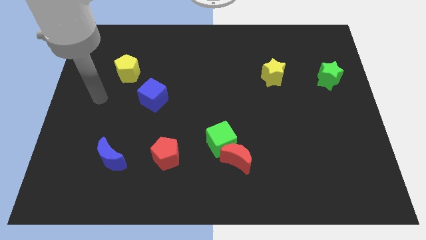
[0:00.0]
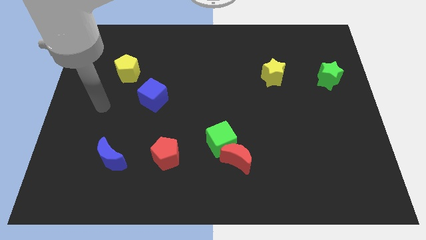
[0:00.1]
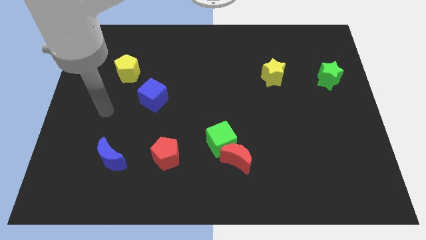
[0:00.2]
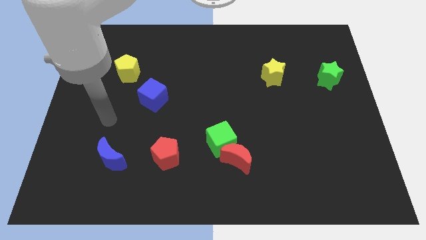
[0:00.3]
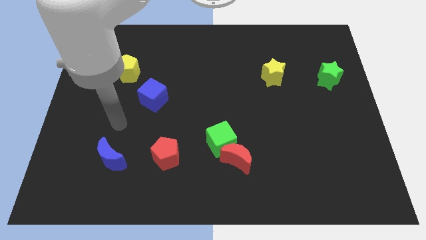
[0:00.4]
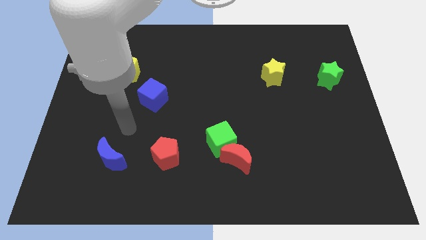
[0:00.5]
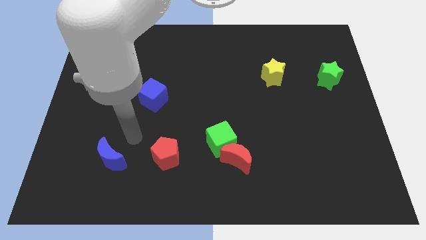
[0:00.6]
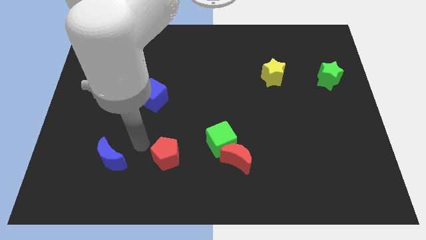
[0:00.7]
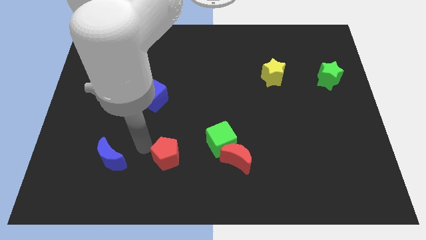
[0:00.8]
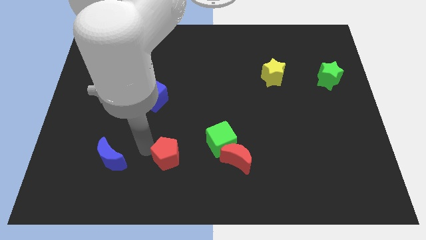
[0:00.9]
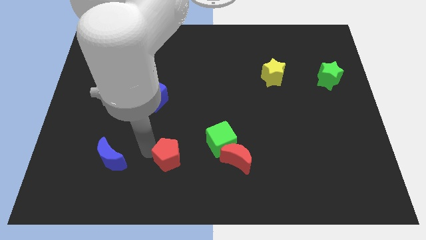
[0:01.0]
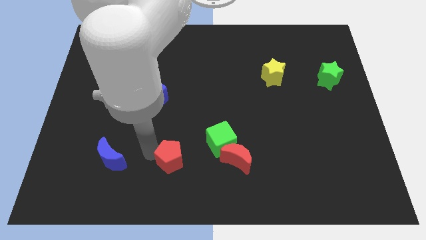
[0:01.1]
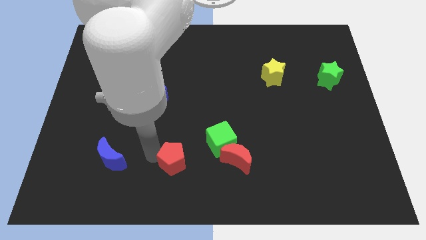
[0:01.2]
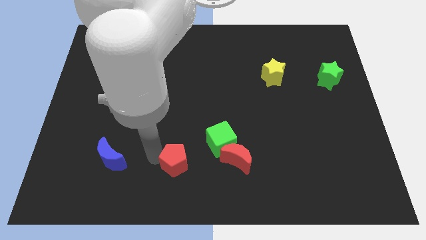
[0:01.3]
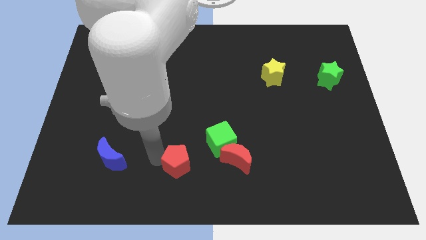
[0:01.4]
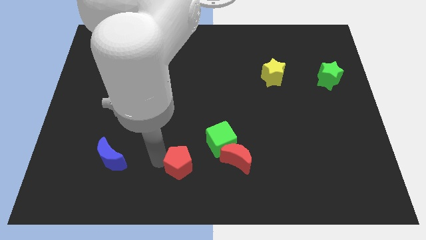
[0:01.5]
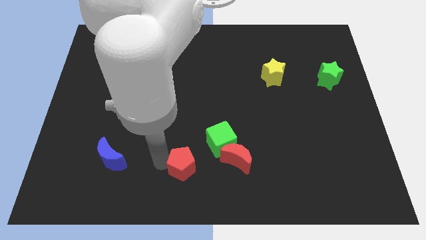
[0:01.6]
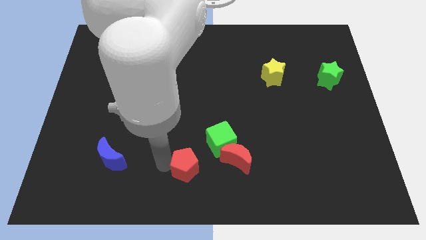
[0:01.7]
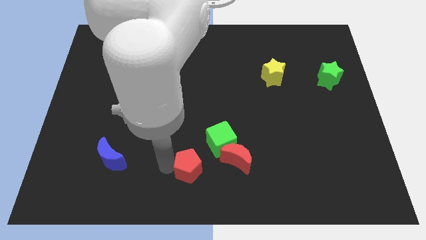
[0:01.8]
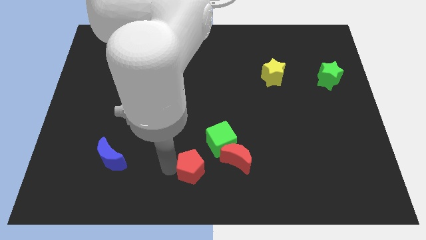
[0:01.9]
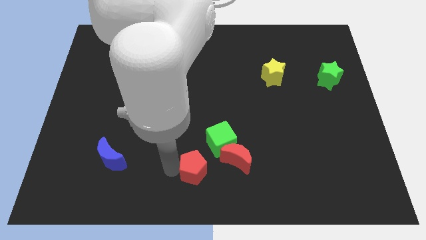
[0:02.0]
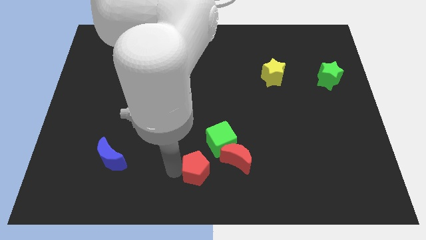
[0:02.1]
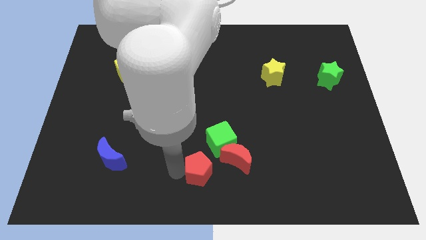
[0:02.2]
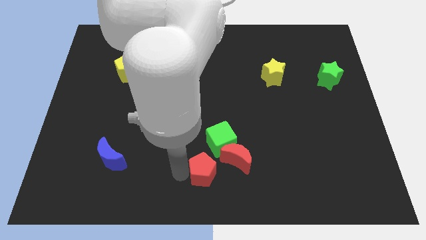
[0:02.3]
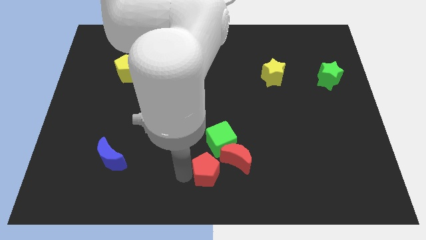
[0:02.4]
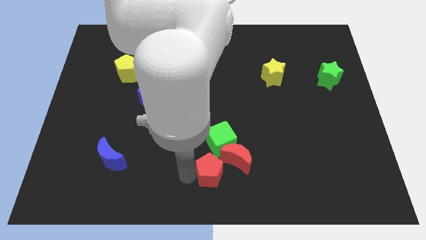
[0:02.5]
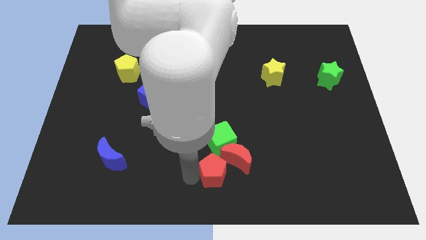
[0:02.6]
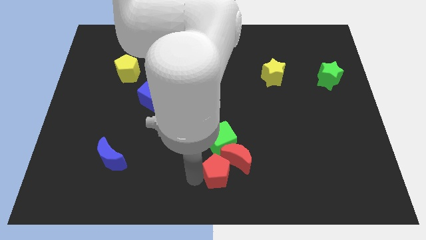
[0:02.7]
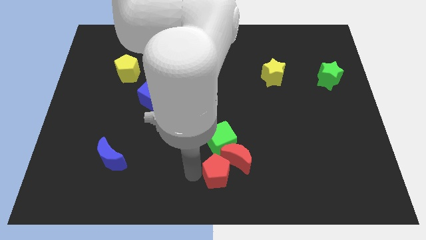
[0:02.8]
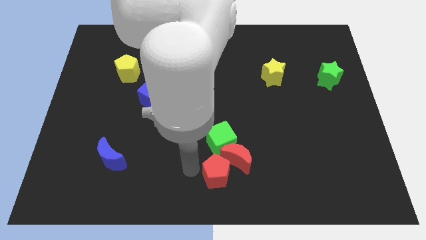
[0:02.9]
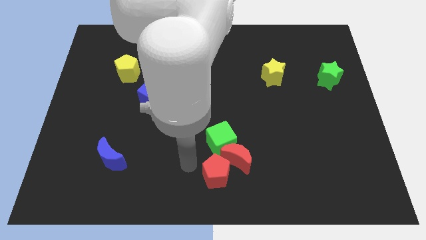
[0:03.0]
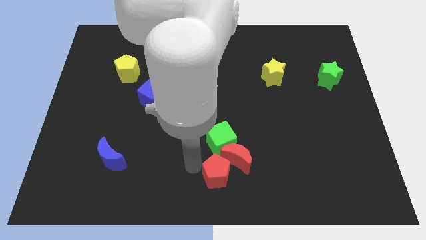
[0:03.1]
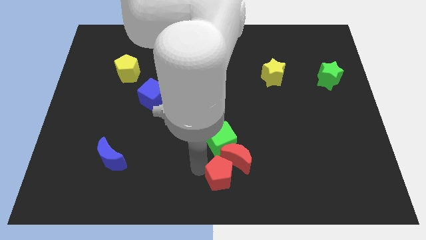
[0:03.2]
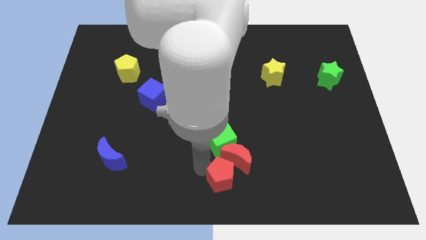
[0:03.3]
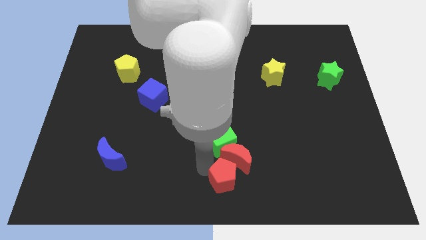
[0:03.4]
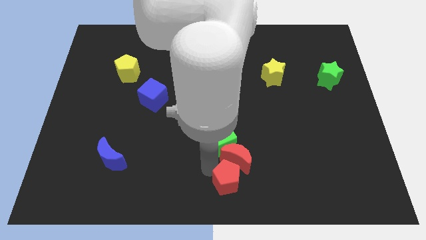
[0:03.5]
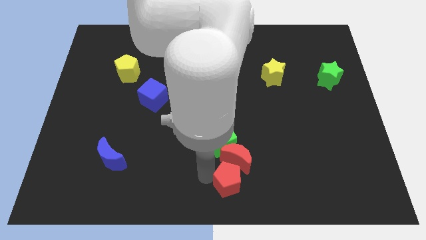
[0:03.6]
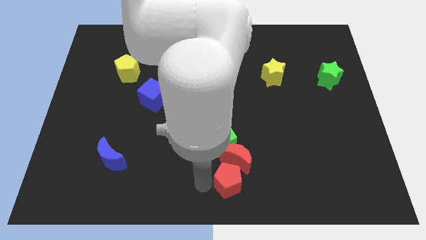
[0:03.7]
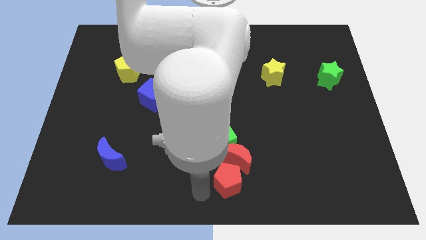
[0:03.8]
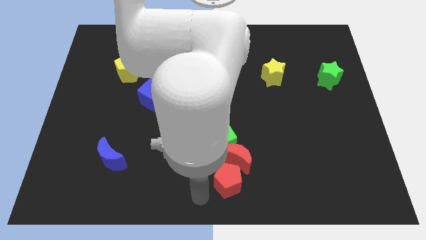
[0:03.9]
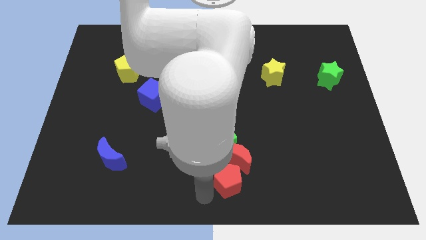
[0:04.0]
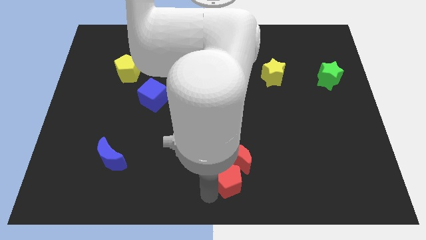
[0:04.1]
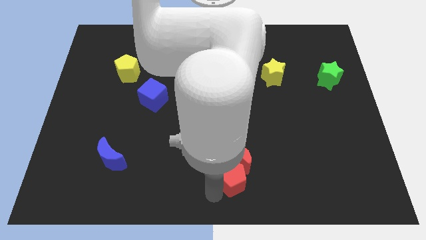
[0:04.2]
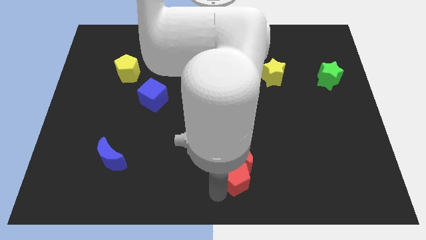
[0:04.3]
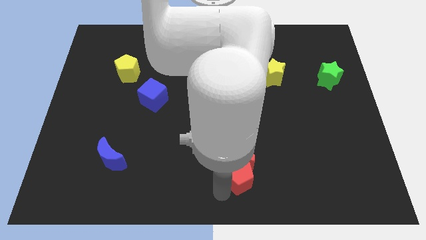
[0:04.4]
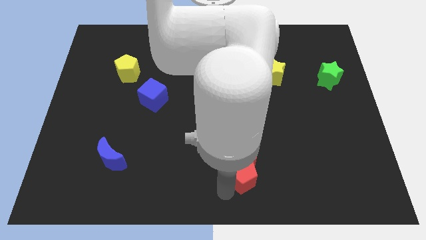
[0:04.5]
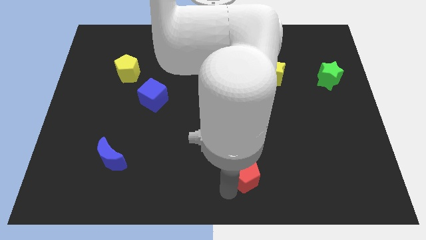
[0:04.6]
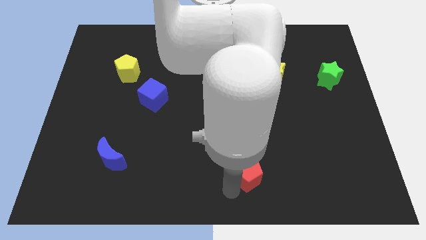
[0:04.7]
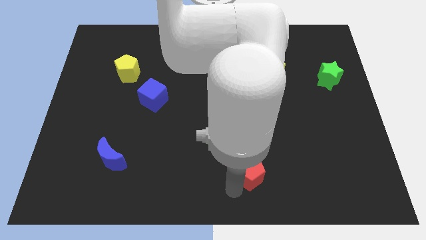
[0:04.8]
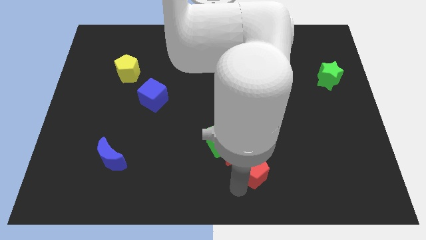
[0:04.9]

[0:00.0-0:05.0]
slide the red pentagon right of the red moon

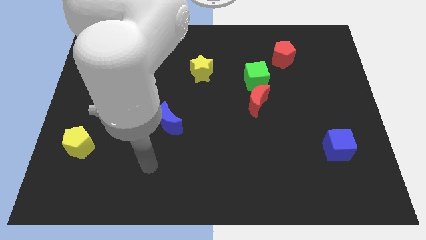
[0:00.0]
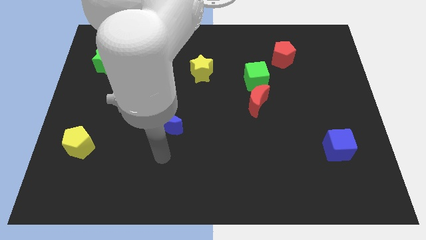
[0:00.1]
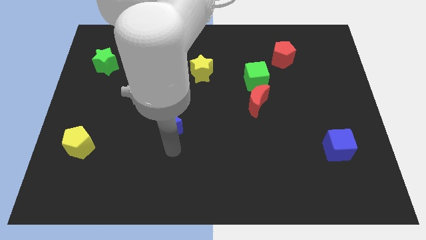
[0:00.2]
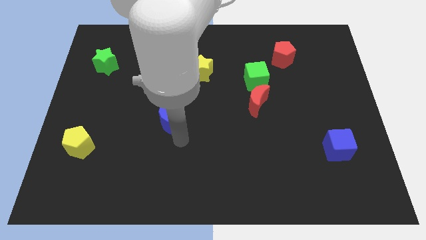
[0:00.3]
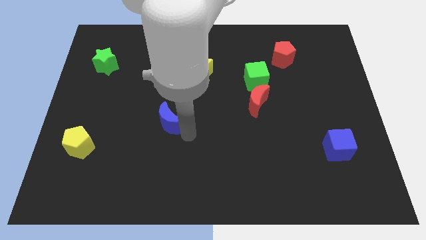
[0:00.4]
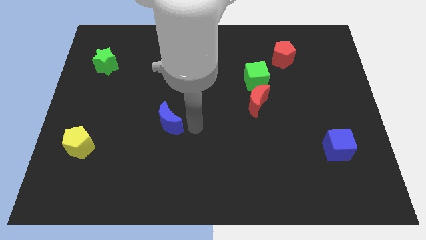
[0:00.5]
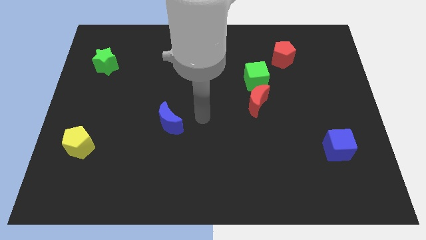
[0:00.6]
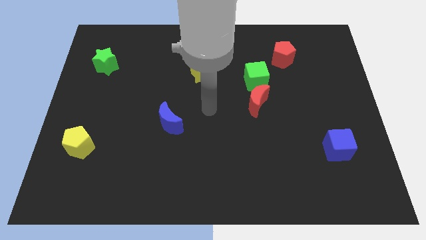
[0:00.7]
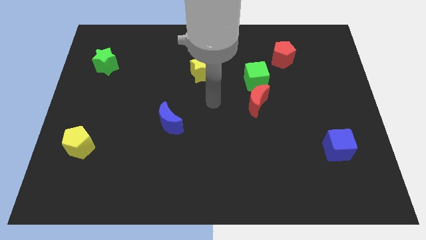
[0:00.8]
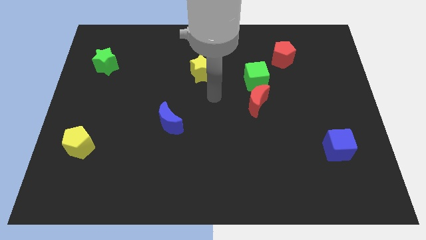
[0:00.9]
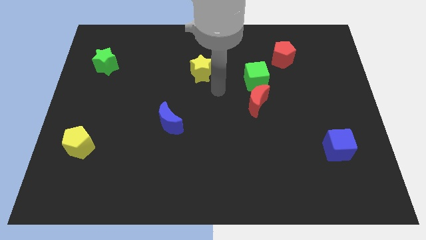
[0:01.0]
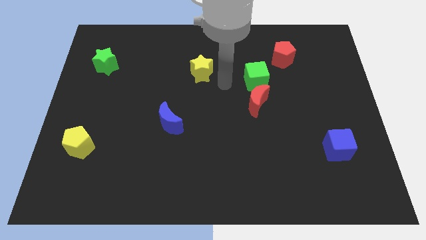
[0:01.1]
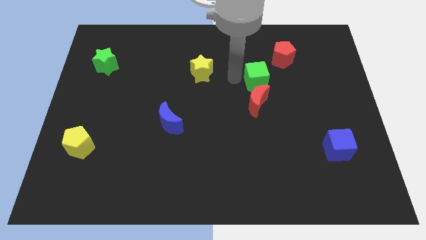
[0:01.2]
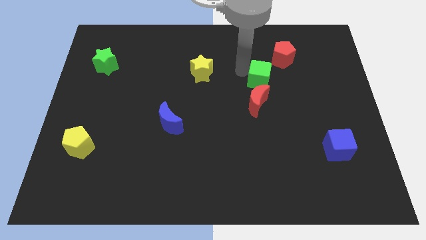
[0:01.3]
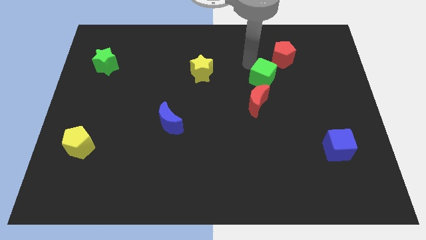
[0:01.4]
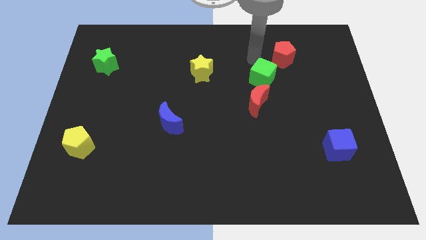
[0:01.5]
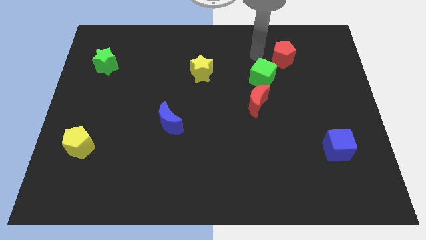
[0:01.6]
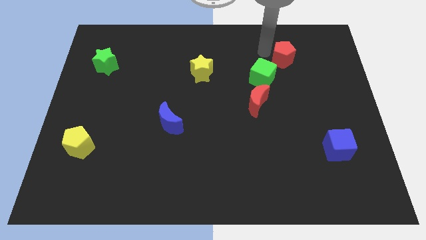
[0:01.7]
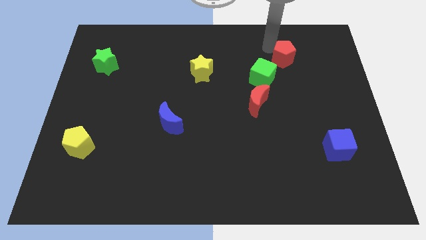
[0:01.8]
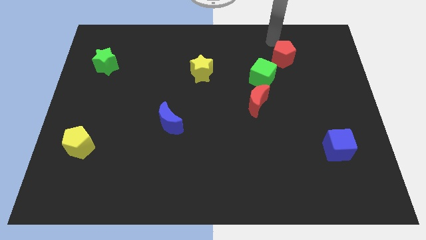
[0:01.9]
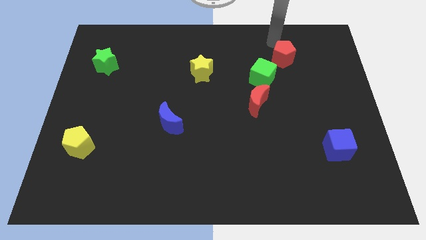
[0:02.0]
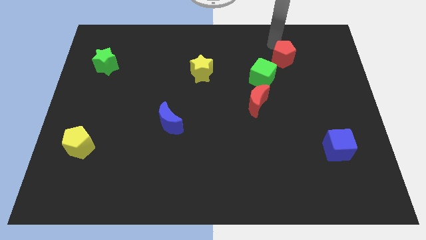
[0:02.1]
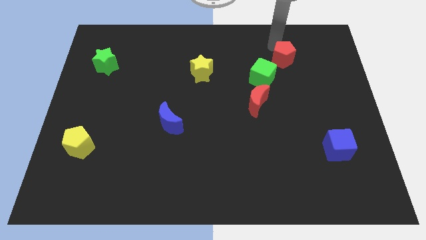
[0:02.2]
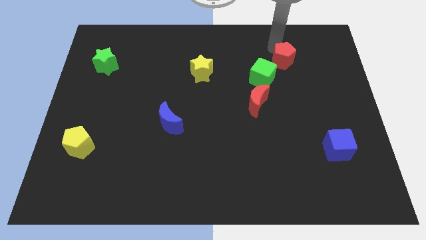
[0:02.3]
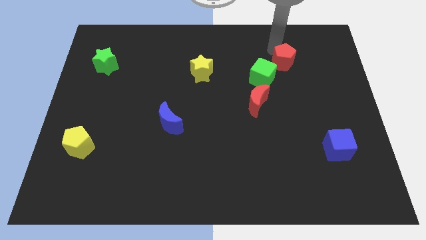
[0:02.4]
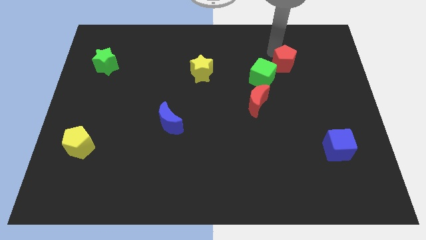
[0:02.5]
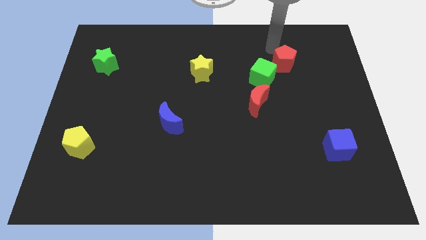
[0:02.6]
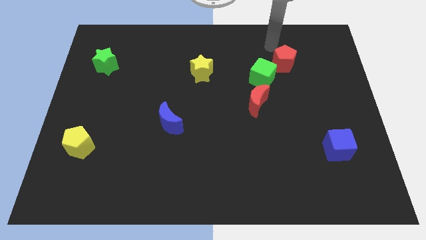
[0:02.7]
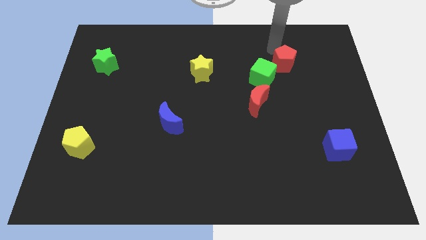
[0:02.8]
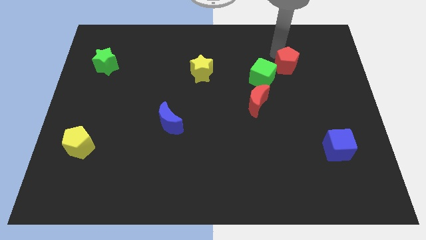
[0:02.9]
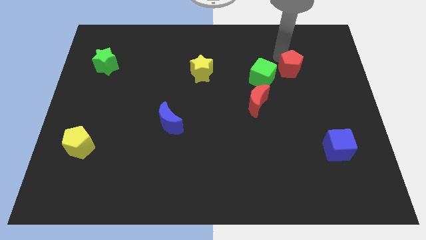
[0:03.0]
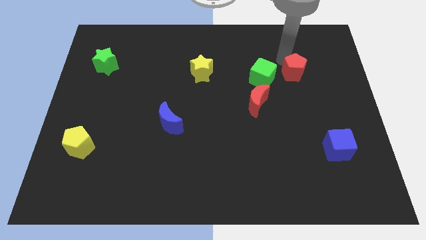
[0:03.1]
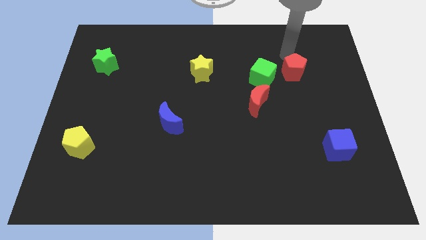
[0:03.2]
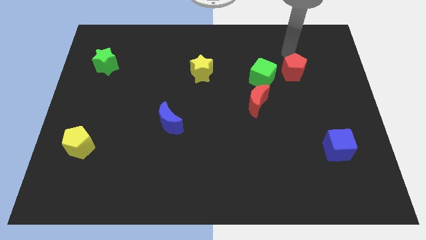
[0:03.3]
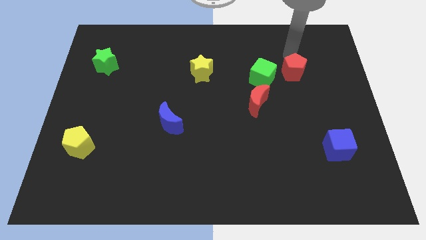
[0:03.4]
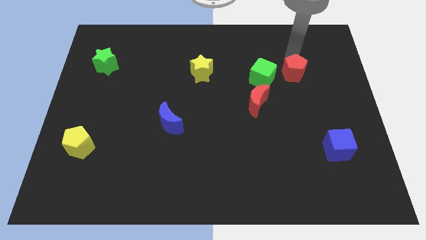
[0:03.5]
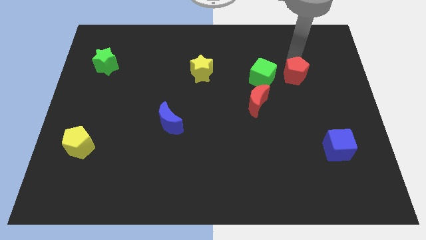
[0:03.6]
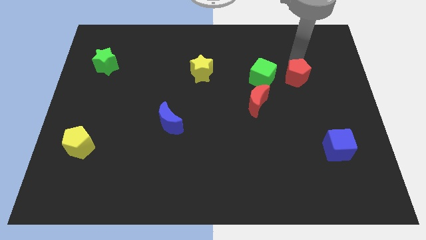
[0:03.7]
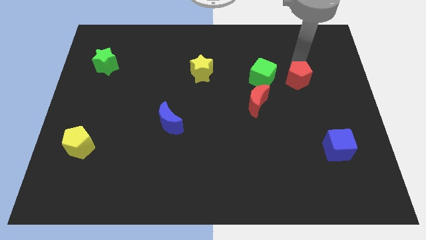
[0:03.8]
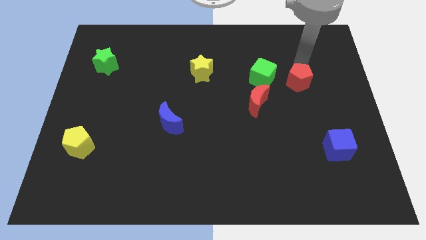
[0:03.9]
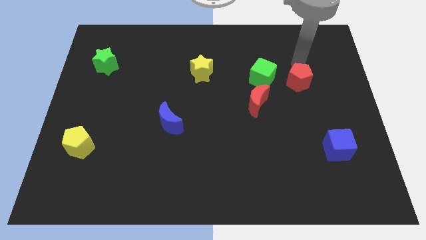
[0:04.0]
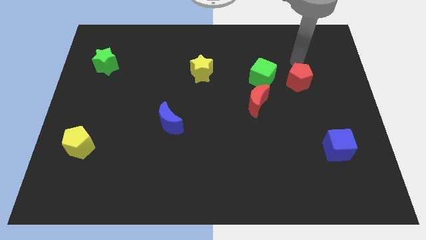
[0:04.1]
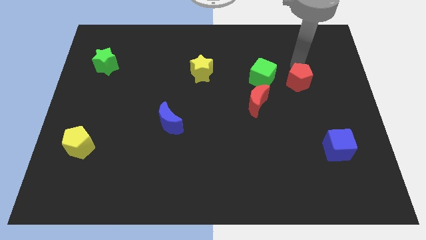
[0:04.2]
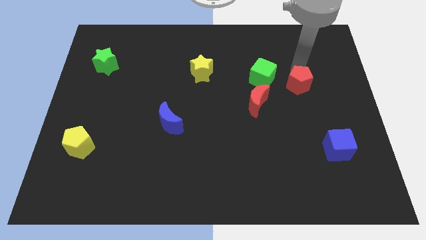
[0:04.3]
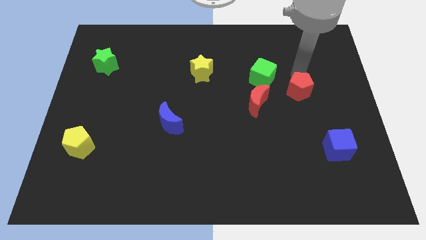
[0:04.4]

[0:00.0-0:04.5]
put the red pentagon to the right side of the red moon
